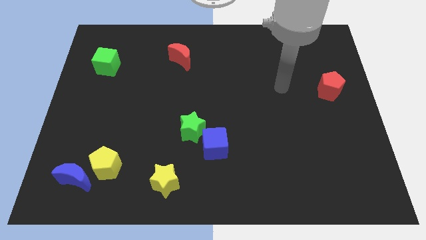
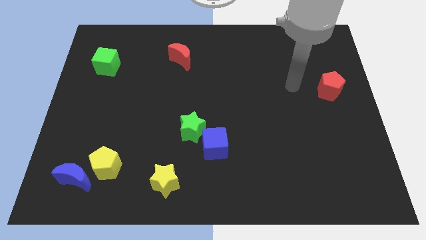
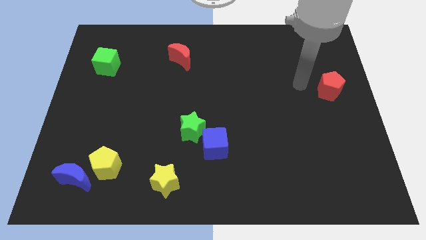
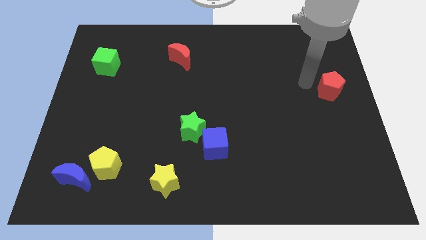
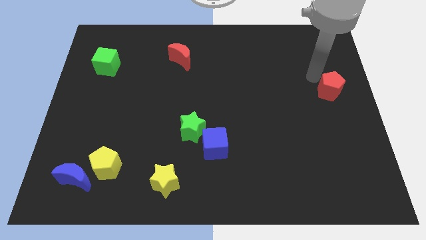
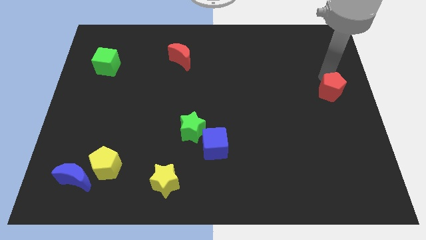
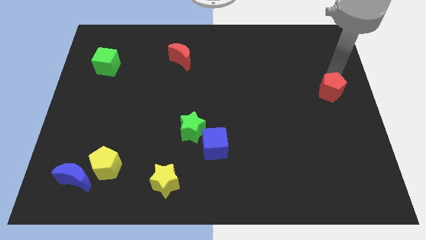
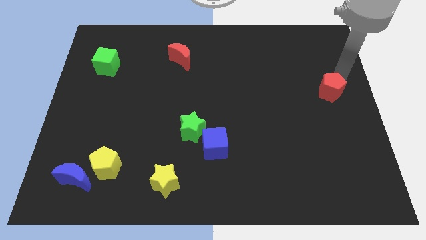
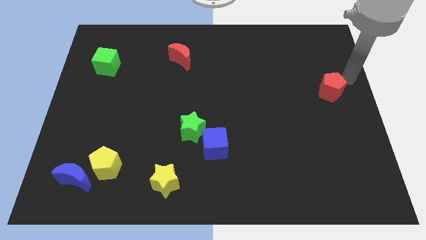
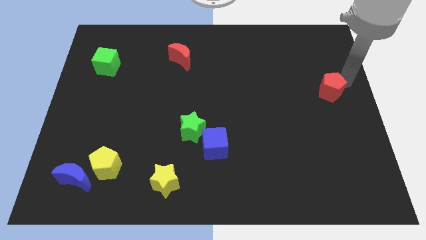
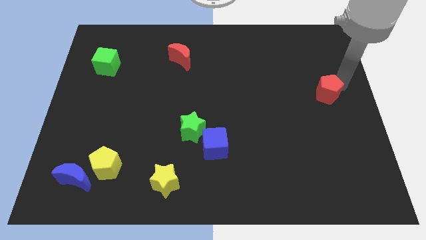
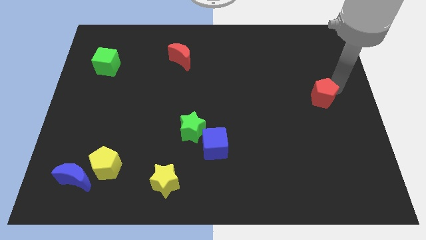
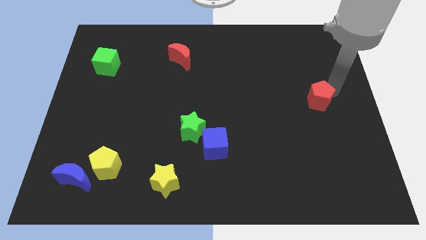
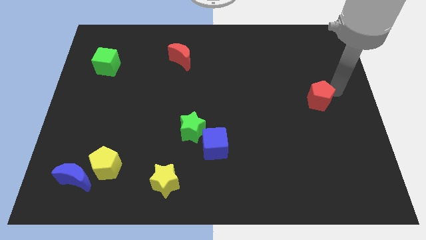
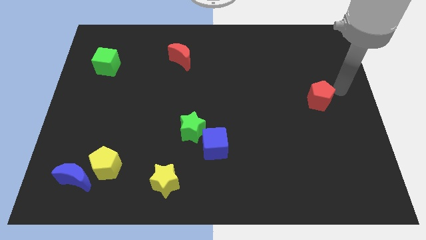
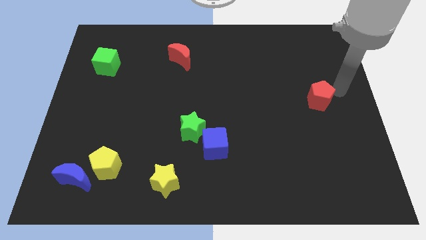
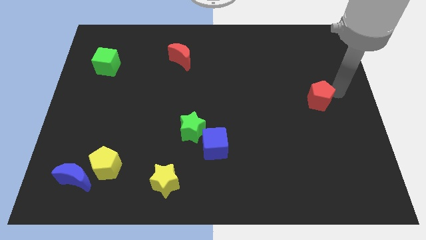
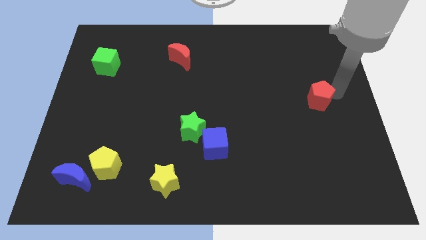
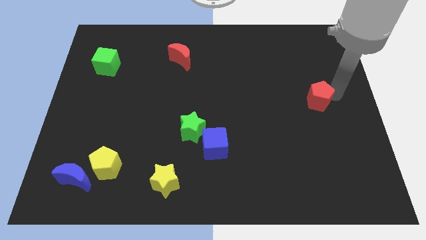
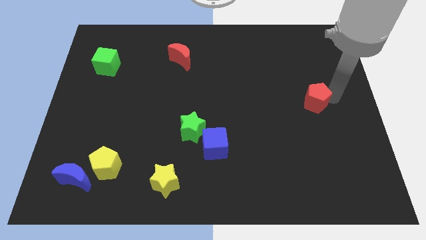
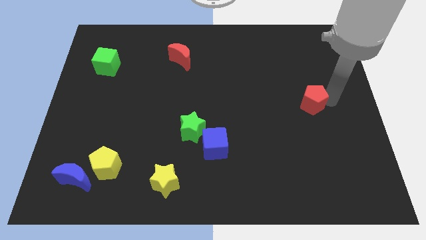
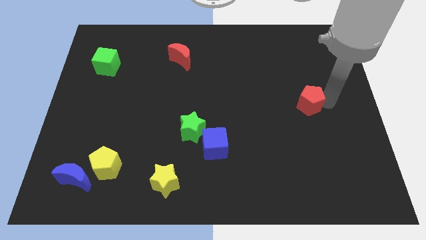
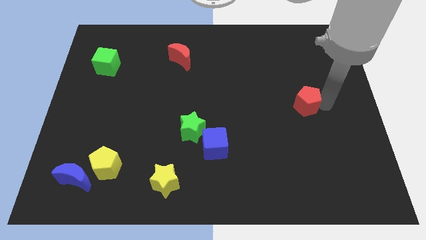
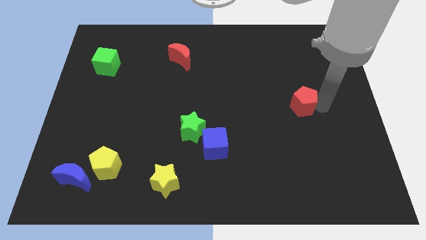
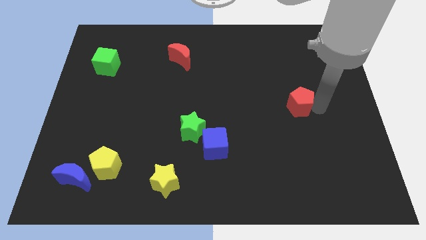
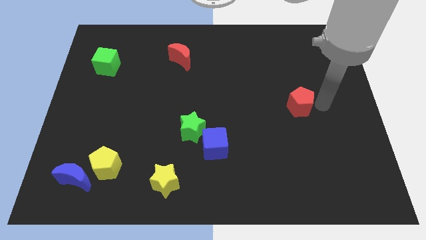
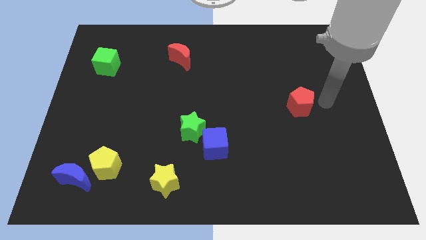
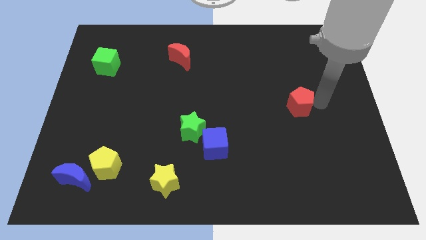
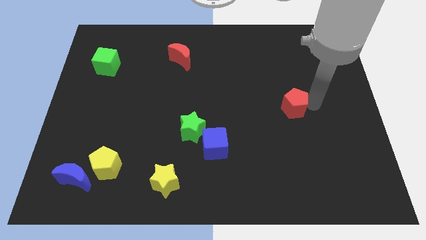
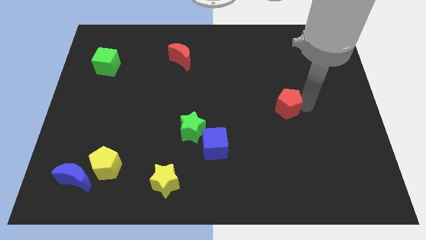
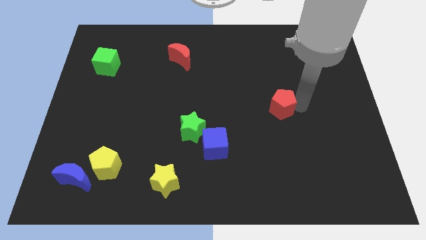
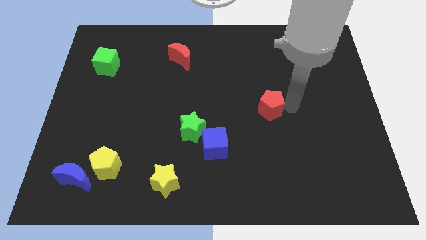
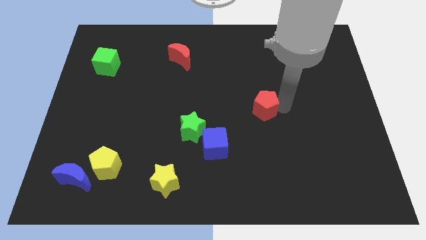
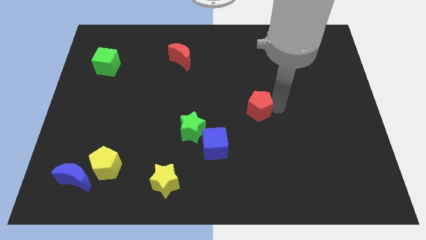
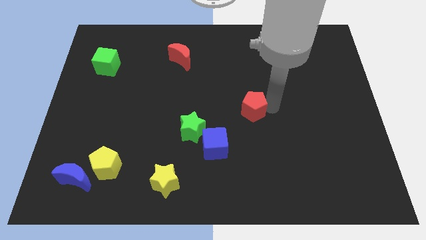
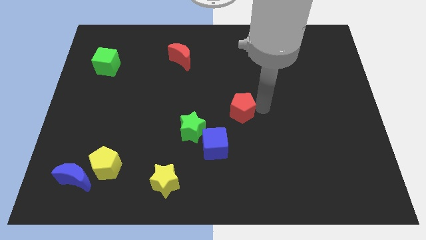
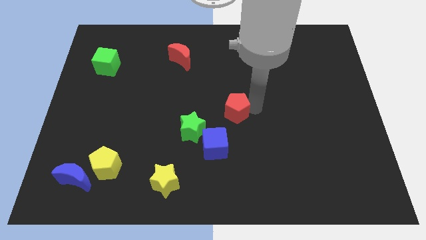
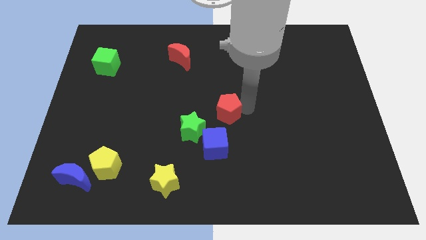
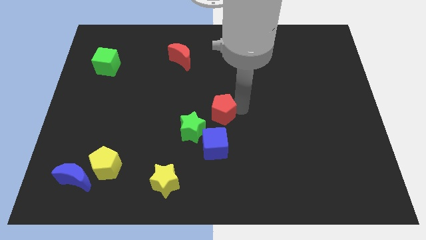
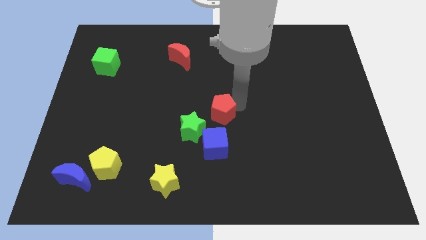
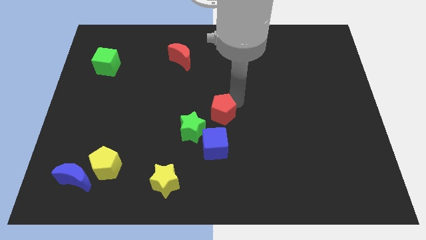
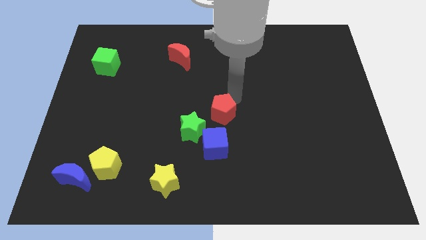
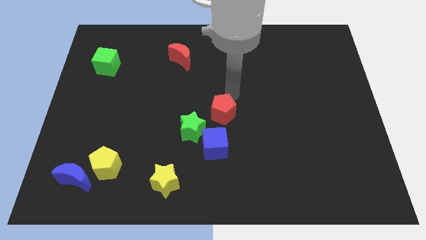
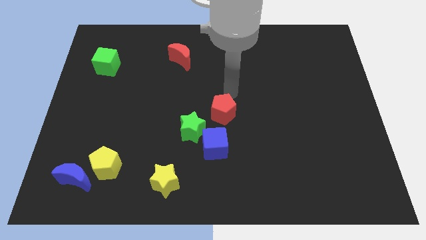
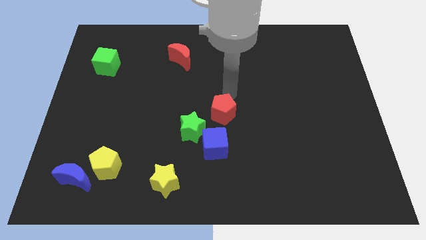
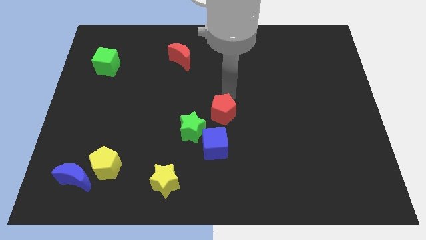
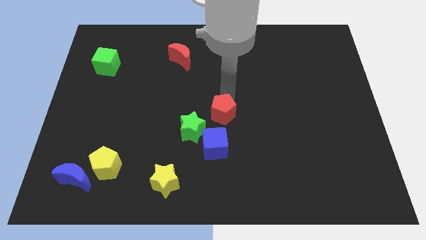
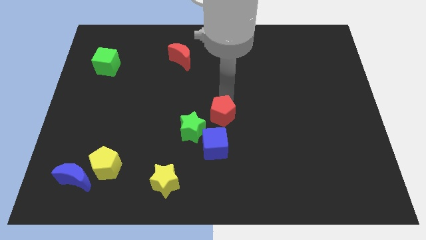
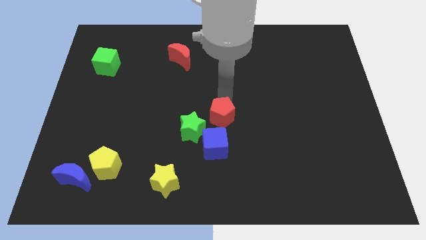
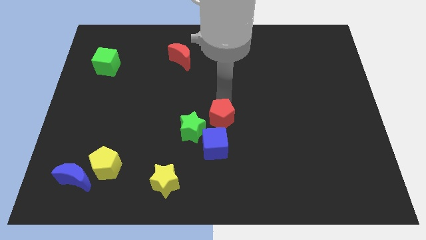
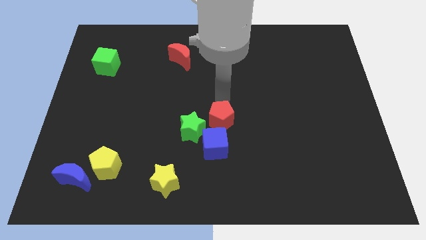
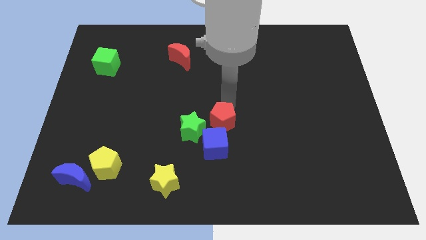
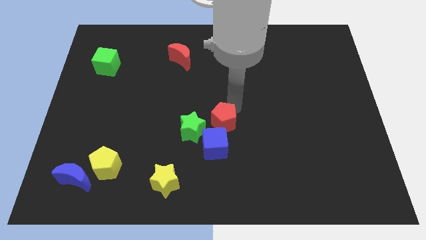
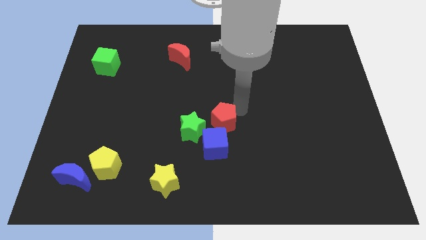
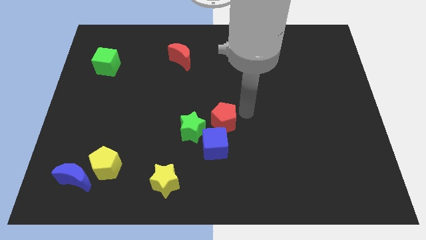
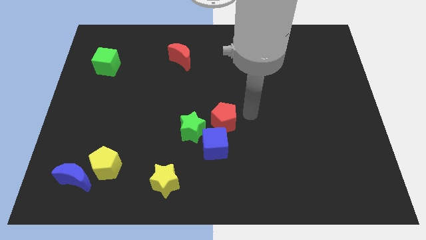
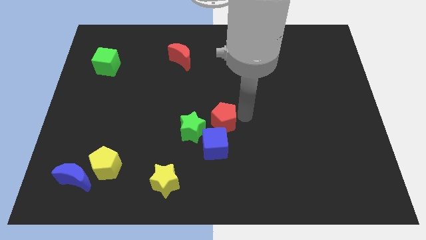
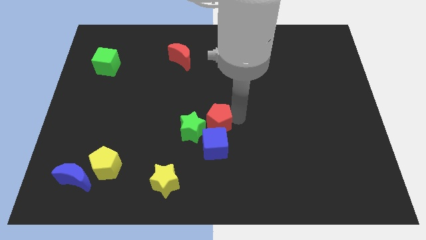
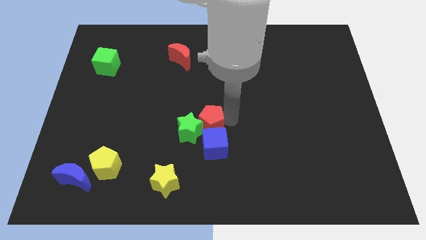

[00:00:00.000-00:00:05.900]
push the red pentagon close to the green star
